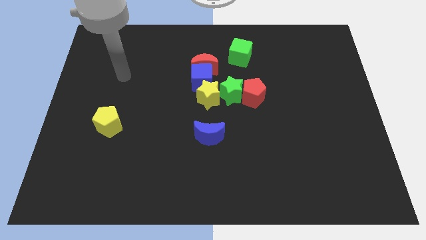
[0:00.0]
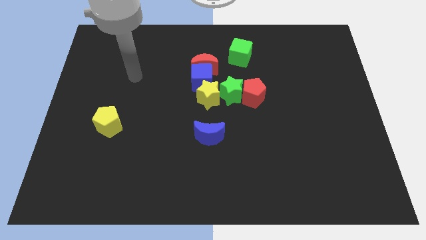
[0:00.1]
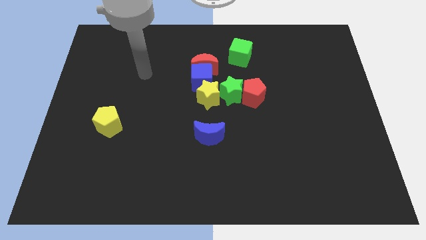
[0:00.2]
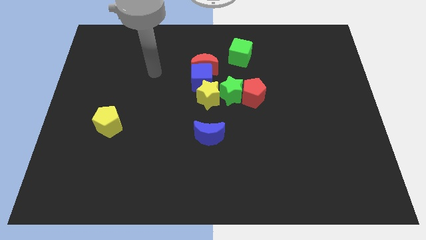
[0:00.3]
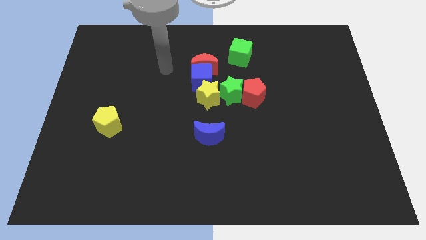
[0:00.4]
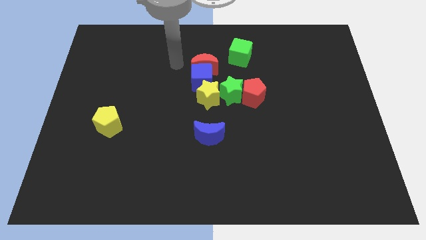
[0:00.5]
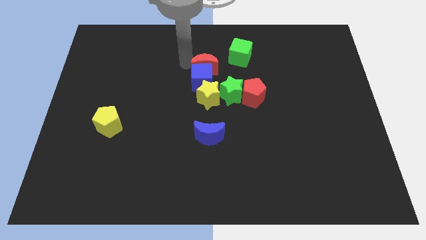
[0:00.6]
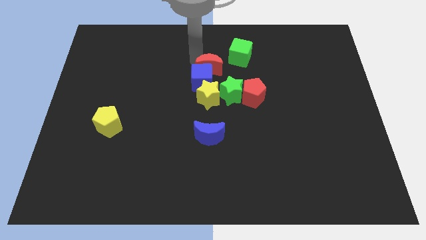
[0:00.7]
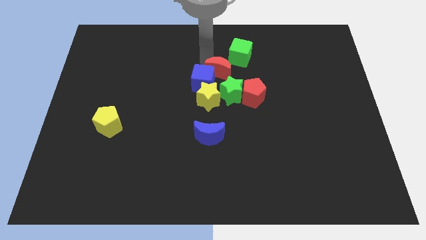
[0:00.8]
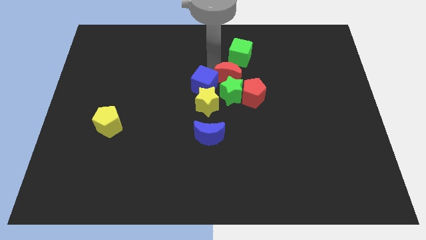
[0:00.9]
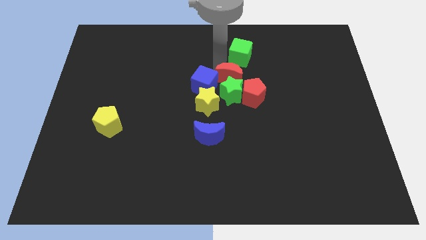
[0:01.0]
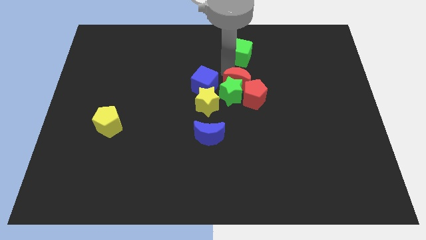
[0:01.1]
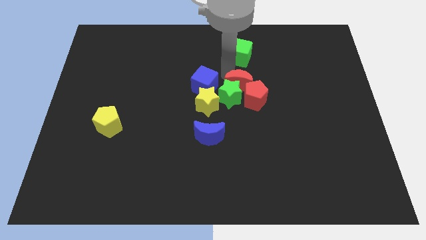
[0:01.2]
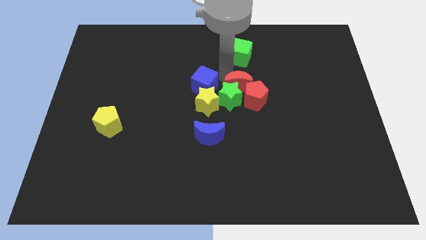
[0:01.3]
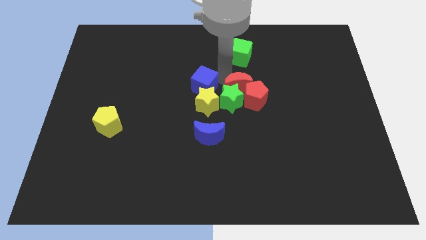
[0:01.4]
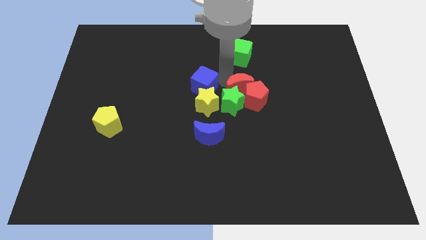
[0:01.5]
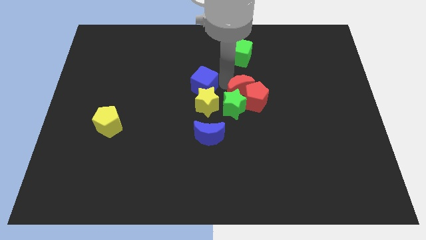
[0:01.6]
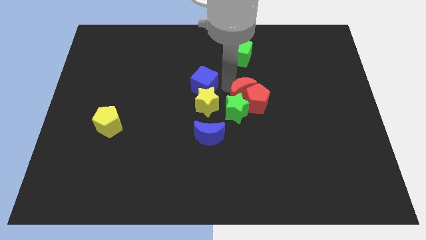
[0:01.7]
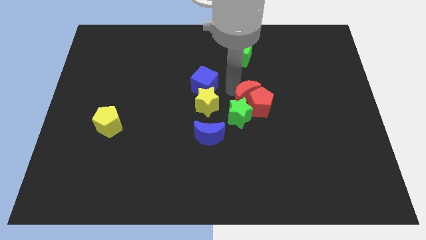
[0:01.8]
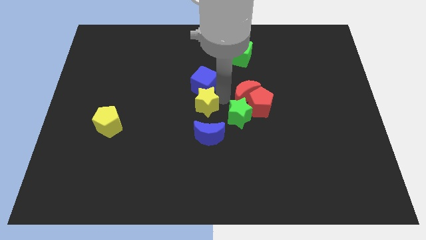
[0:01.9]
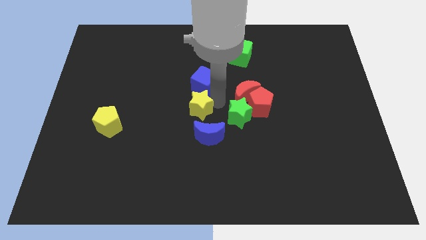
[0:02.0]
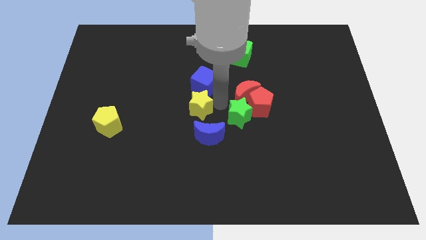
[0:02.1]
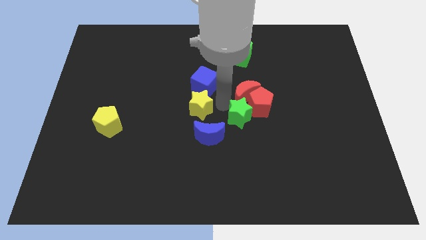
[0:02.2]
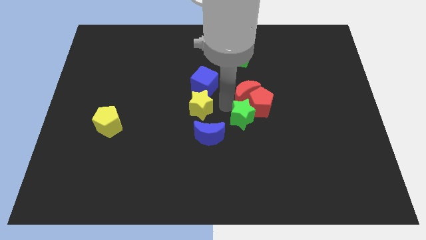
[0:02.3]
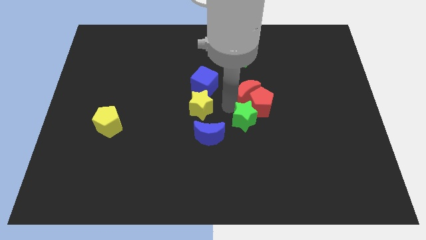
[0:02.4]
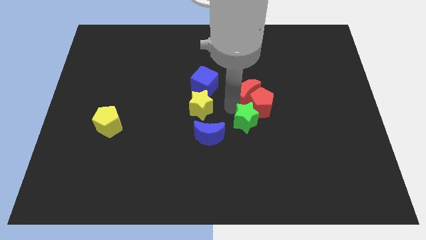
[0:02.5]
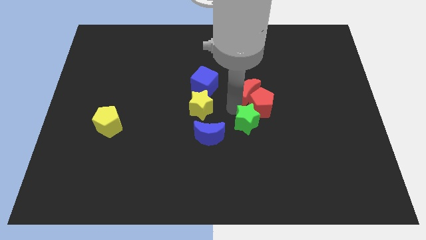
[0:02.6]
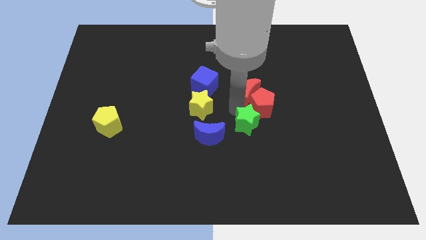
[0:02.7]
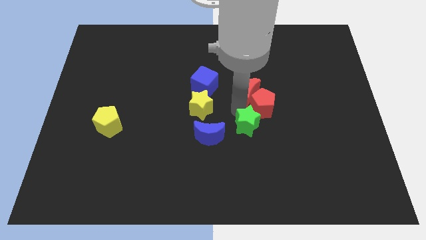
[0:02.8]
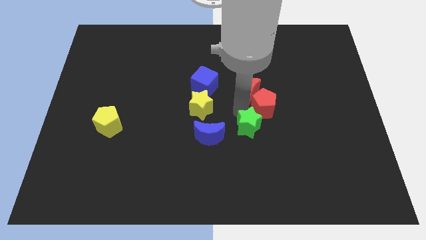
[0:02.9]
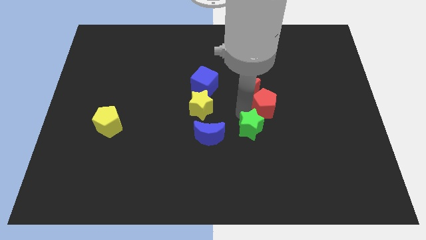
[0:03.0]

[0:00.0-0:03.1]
pull the green star apart from the clump

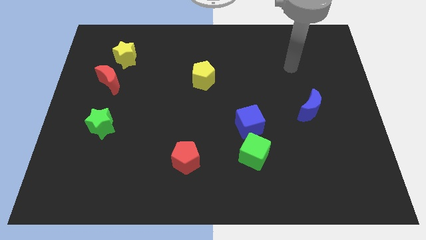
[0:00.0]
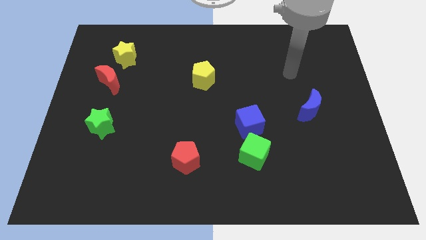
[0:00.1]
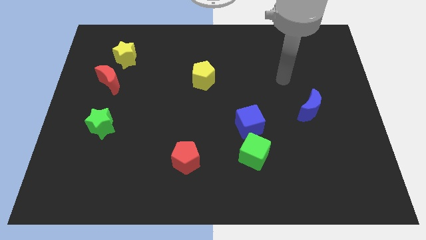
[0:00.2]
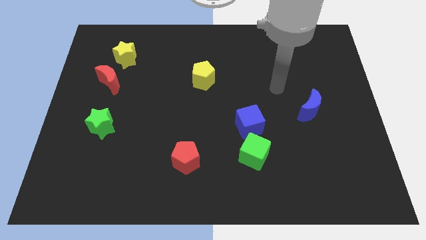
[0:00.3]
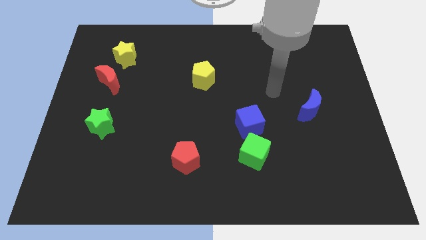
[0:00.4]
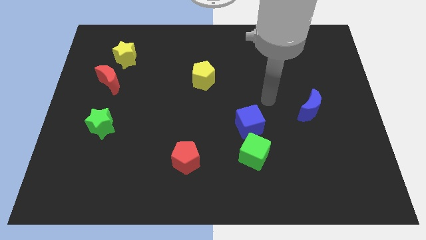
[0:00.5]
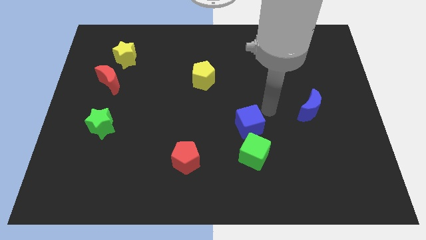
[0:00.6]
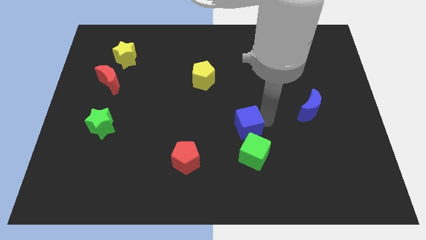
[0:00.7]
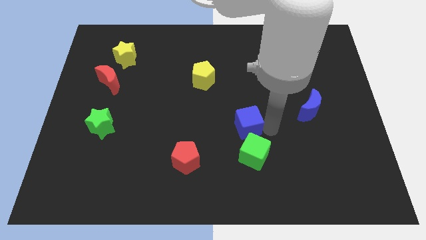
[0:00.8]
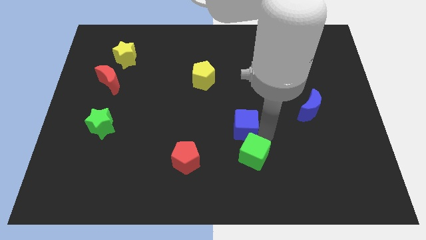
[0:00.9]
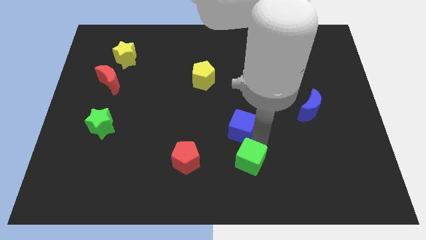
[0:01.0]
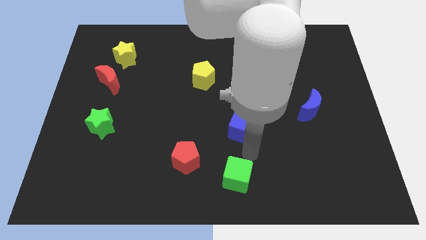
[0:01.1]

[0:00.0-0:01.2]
separate the blue cube from the green cube

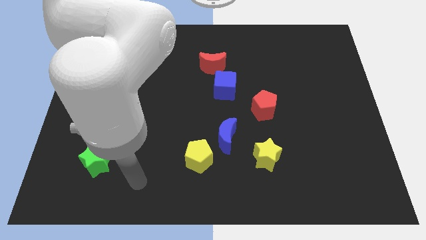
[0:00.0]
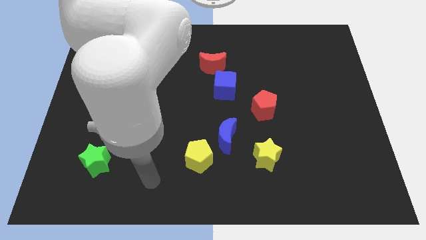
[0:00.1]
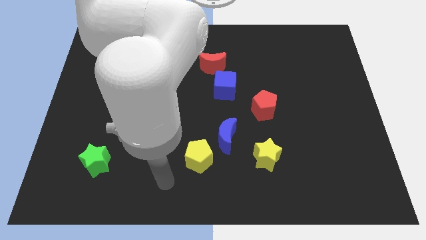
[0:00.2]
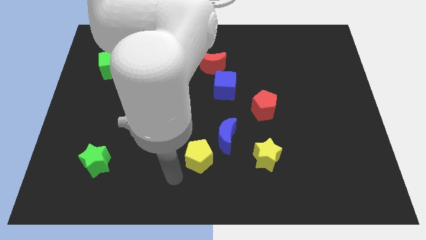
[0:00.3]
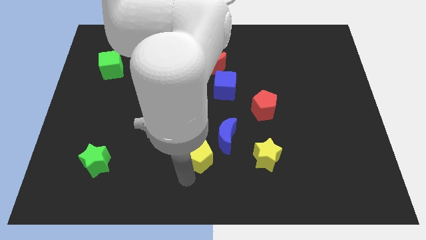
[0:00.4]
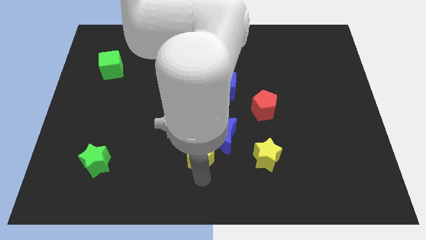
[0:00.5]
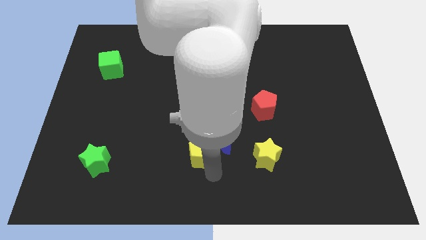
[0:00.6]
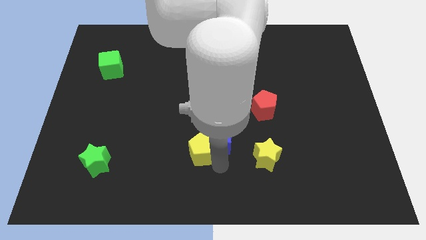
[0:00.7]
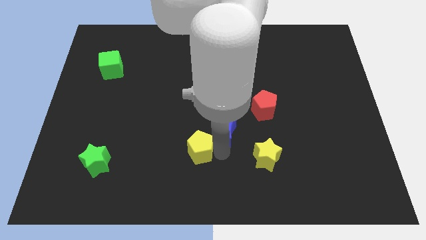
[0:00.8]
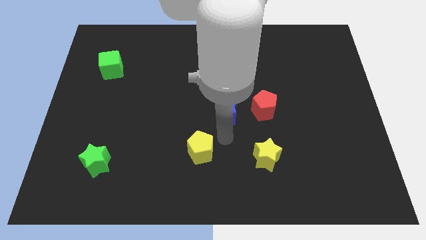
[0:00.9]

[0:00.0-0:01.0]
pull the yellow pentagon apart from the blue moon

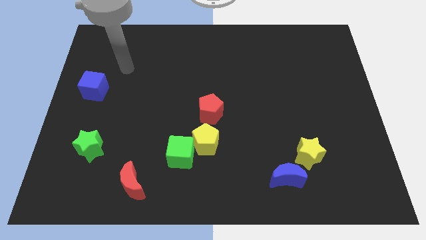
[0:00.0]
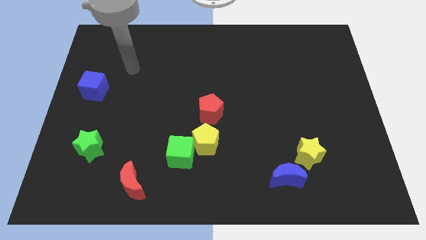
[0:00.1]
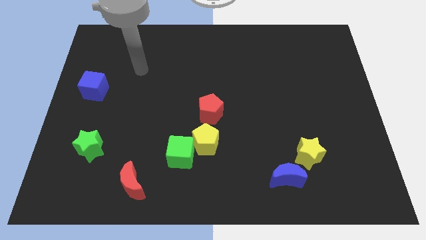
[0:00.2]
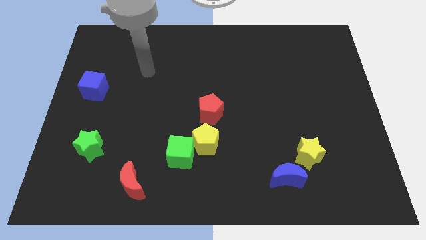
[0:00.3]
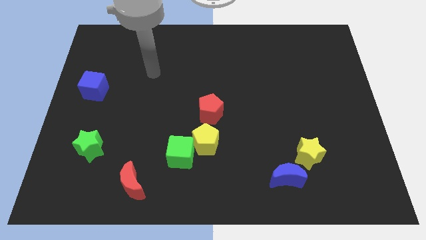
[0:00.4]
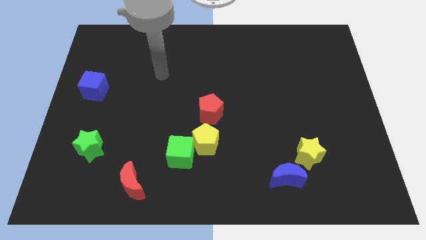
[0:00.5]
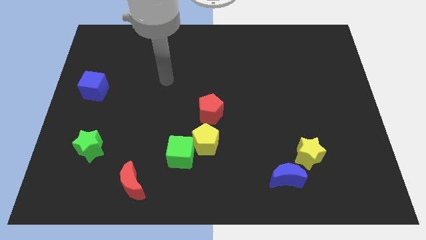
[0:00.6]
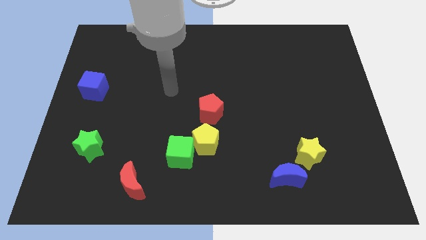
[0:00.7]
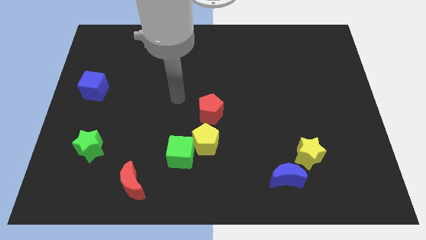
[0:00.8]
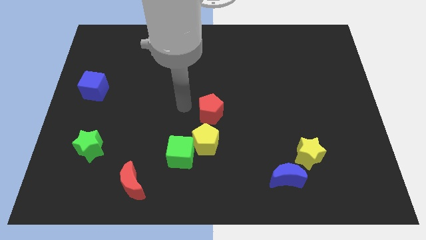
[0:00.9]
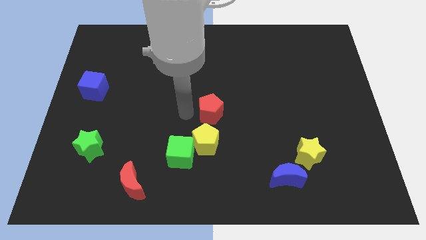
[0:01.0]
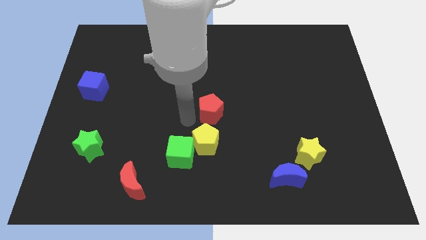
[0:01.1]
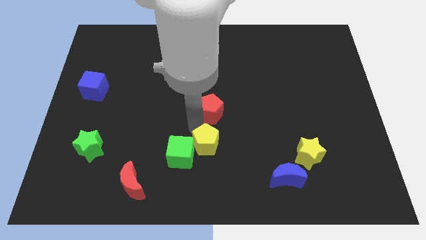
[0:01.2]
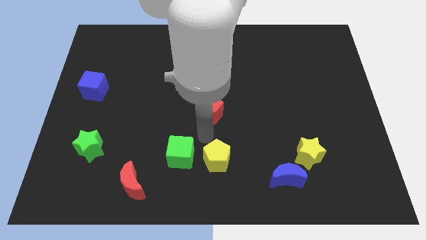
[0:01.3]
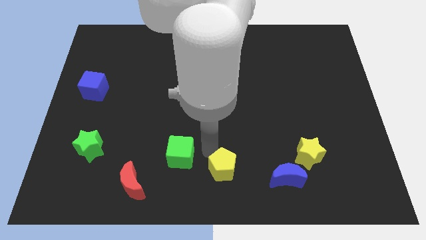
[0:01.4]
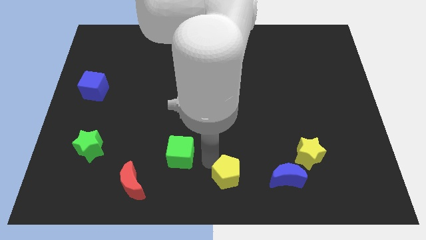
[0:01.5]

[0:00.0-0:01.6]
move the green cube away from the yellow pentagon

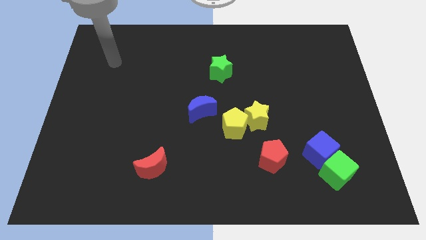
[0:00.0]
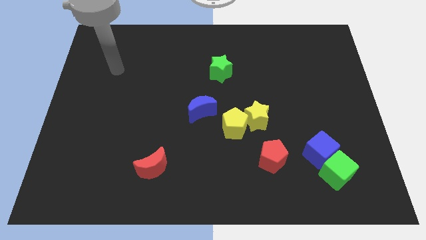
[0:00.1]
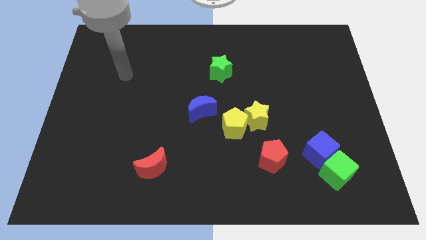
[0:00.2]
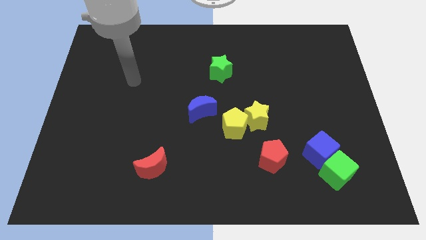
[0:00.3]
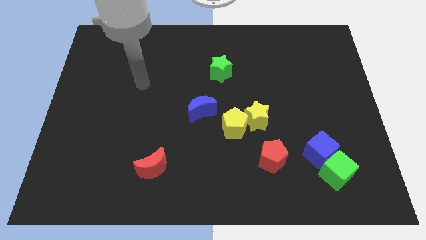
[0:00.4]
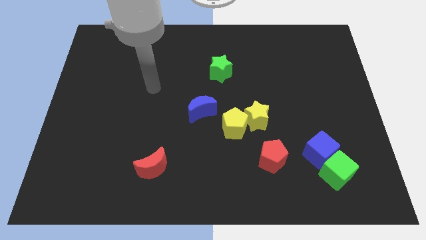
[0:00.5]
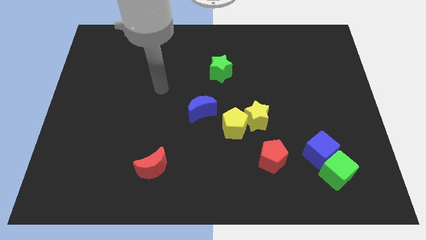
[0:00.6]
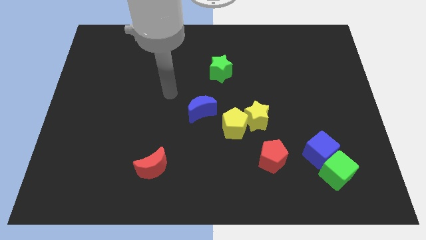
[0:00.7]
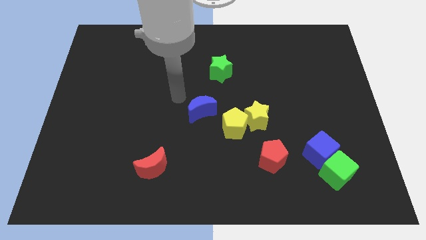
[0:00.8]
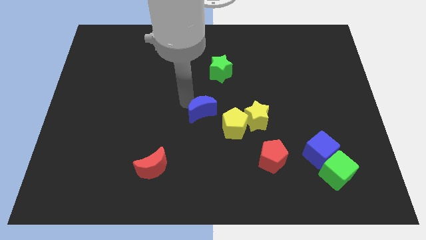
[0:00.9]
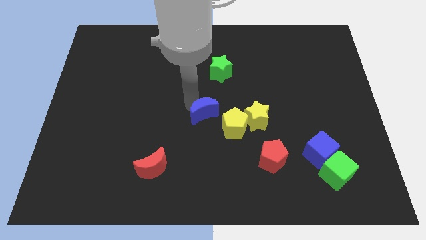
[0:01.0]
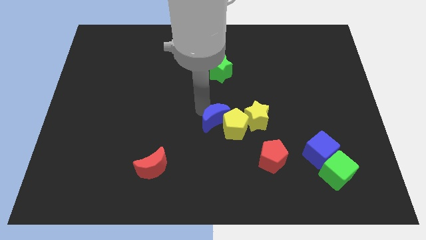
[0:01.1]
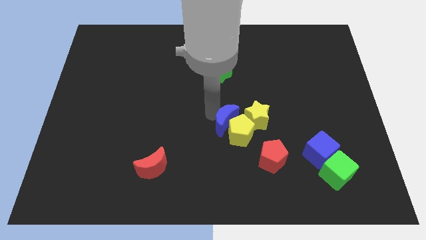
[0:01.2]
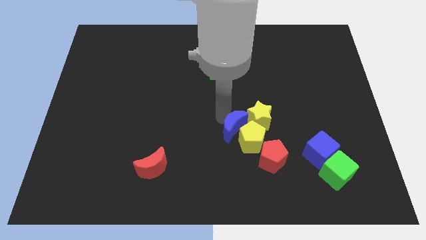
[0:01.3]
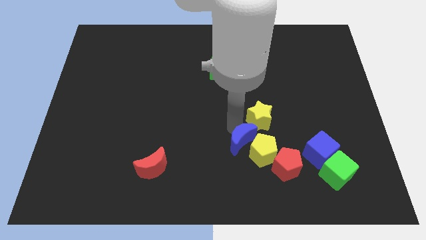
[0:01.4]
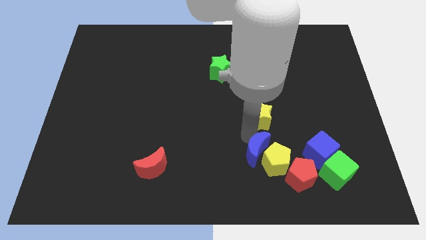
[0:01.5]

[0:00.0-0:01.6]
separate the yellow star from the yellow pentagon

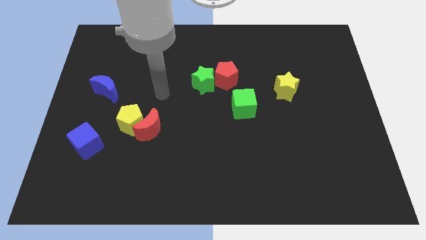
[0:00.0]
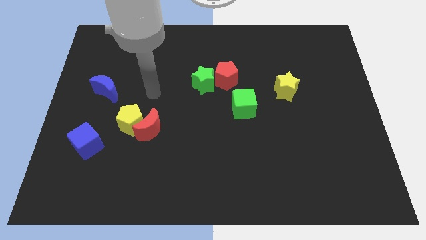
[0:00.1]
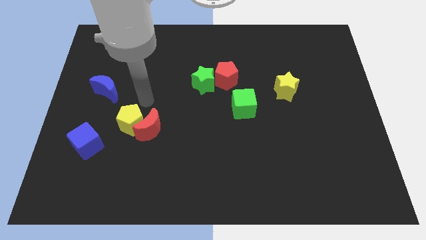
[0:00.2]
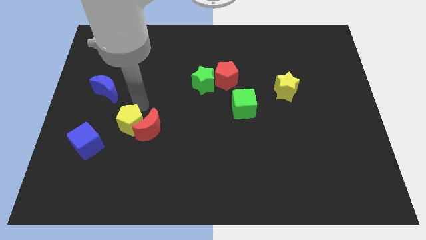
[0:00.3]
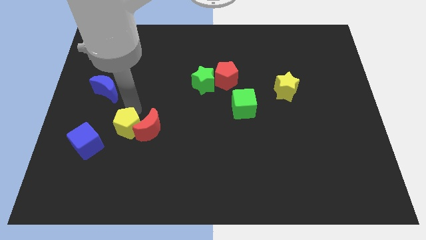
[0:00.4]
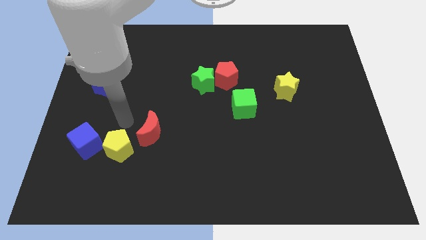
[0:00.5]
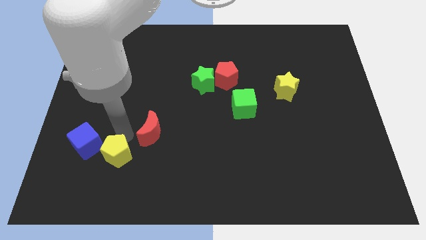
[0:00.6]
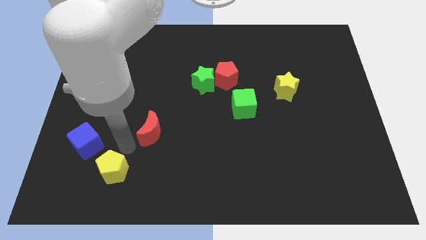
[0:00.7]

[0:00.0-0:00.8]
move the red moon away from the yellow pentagon
